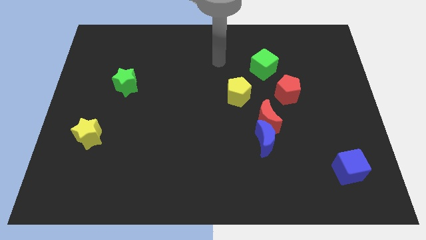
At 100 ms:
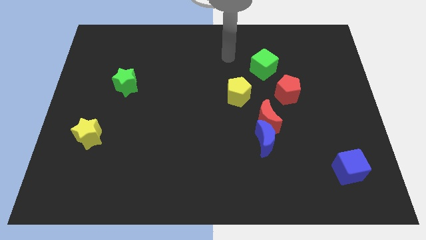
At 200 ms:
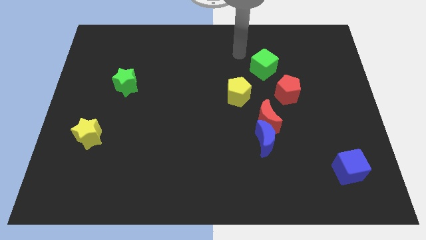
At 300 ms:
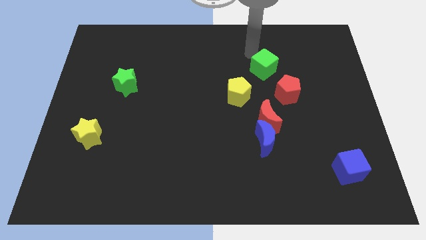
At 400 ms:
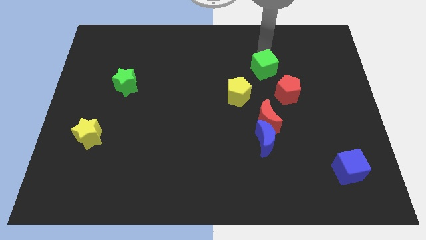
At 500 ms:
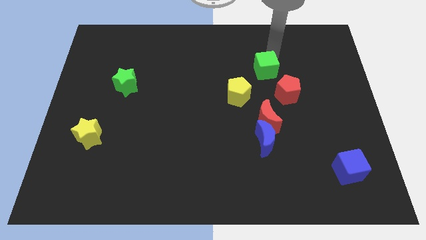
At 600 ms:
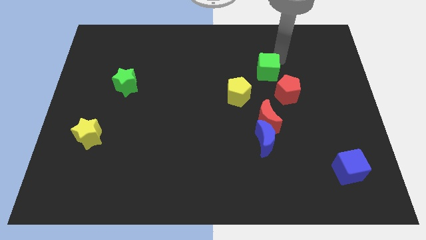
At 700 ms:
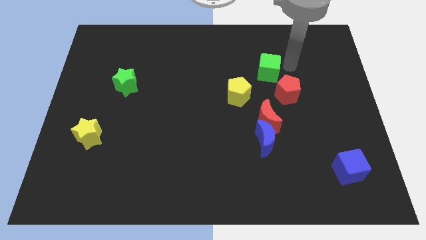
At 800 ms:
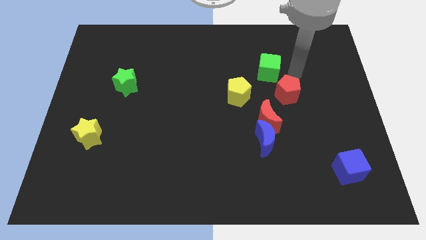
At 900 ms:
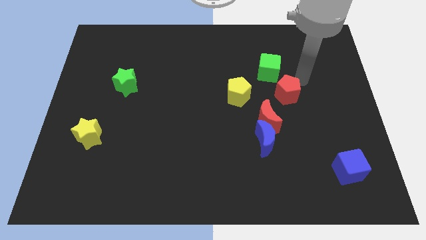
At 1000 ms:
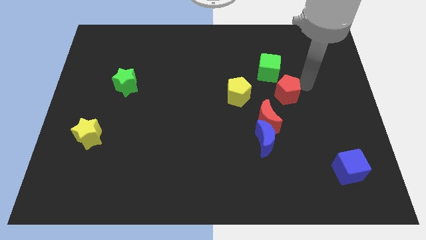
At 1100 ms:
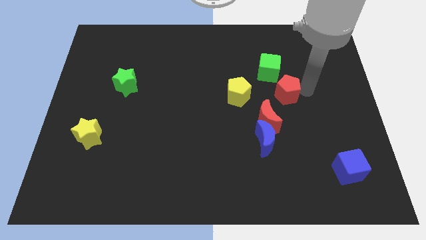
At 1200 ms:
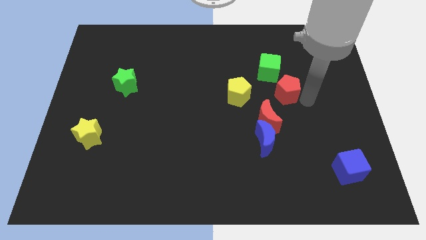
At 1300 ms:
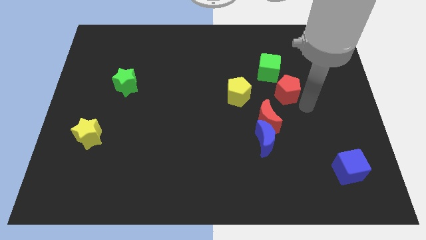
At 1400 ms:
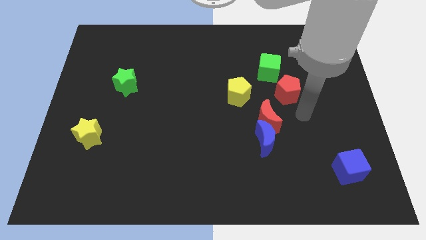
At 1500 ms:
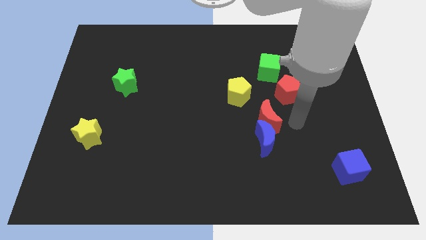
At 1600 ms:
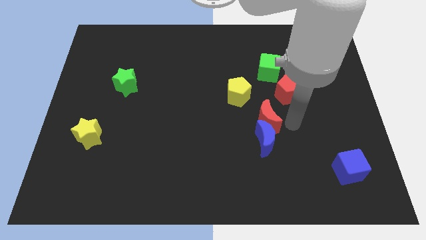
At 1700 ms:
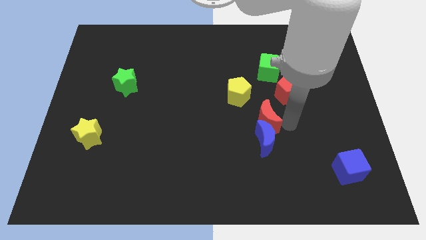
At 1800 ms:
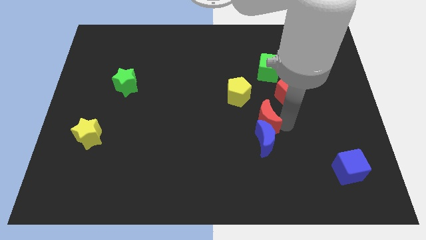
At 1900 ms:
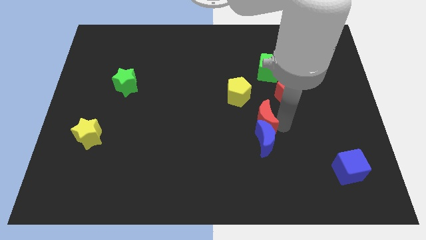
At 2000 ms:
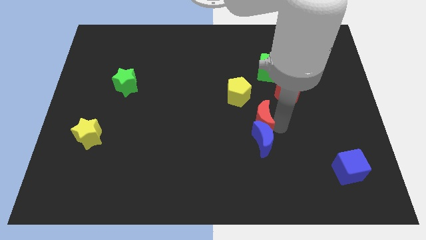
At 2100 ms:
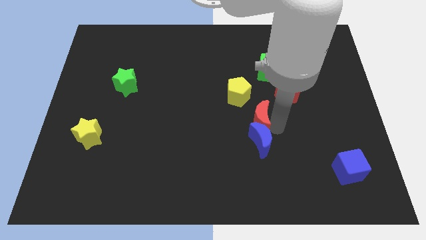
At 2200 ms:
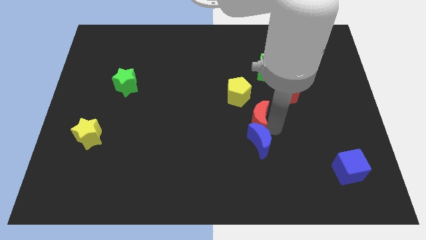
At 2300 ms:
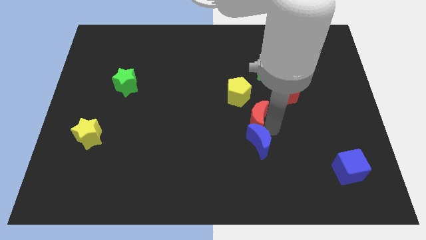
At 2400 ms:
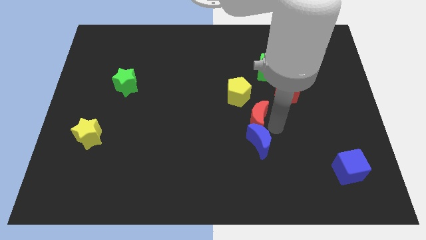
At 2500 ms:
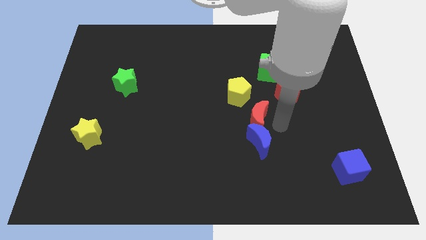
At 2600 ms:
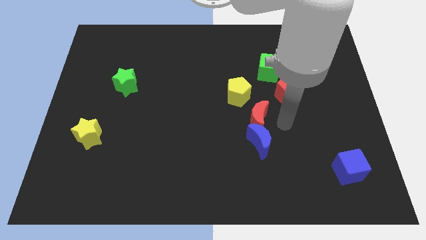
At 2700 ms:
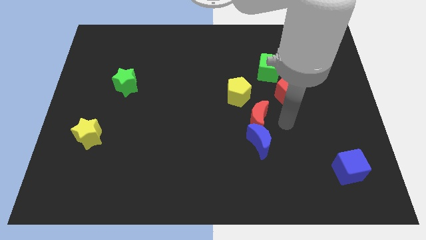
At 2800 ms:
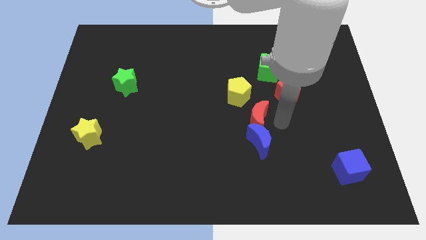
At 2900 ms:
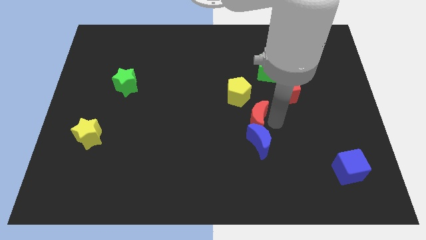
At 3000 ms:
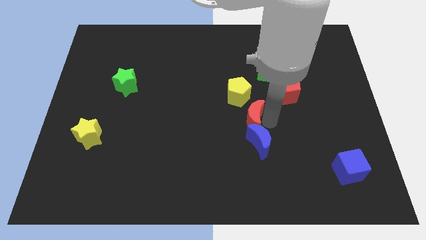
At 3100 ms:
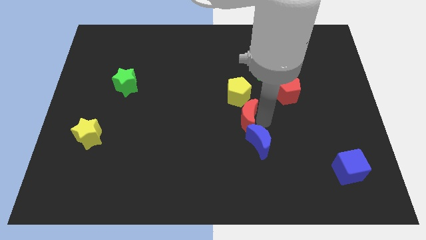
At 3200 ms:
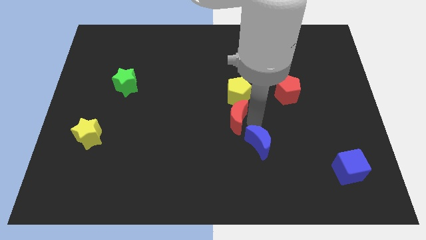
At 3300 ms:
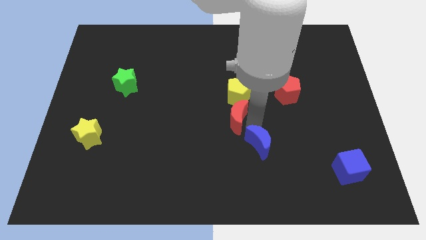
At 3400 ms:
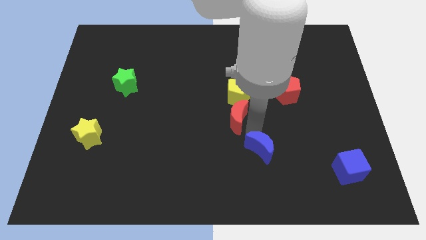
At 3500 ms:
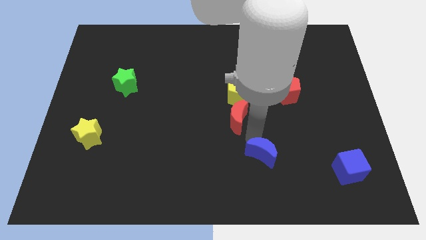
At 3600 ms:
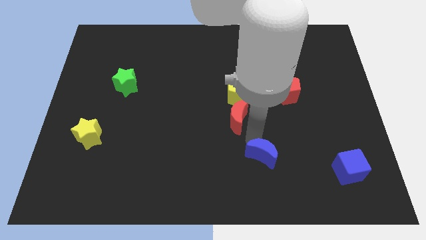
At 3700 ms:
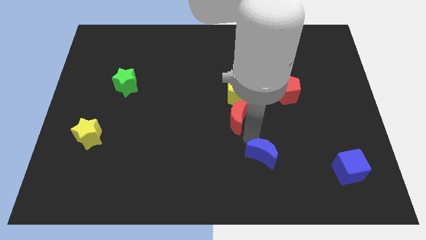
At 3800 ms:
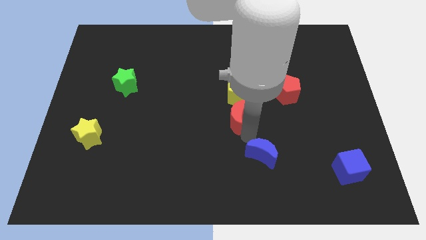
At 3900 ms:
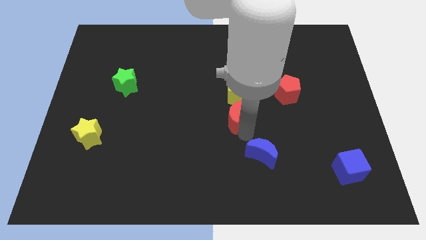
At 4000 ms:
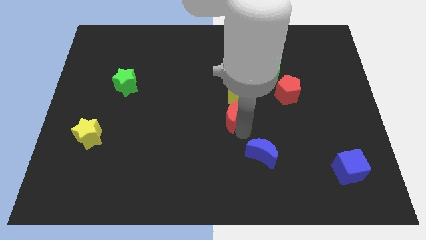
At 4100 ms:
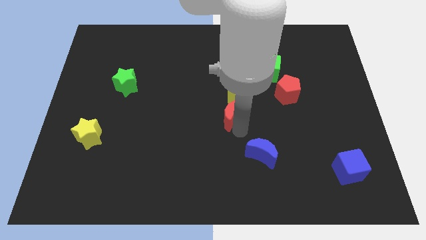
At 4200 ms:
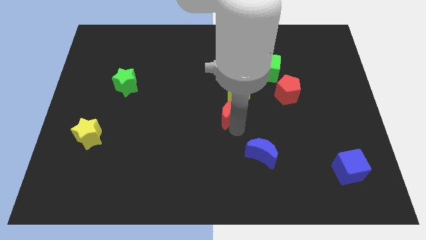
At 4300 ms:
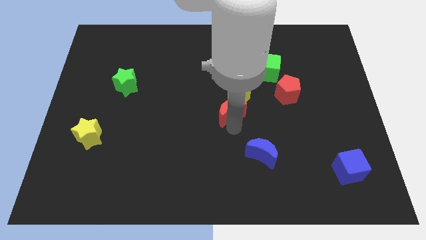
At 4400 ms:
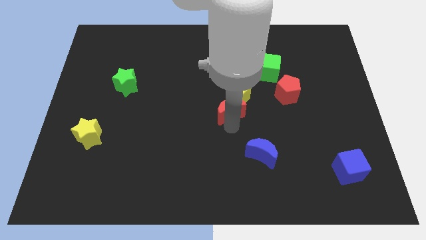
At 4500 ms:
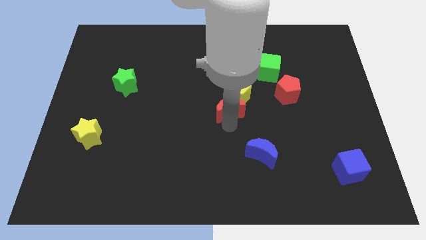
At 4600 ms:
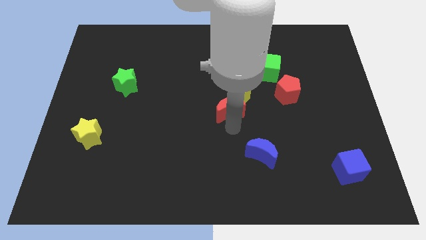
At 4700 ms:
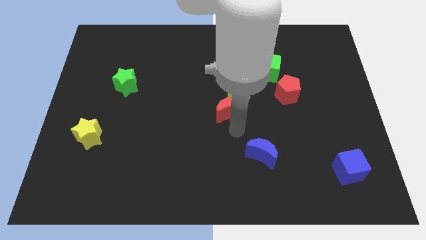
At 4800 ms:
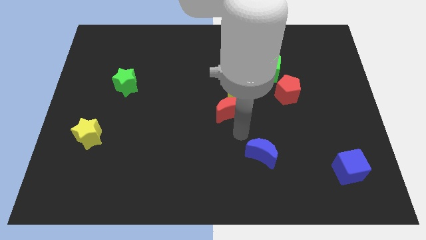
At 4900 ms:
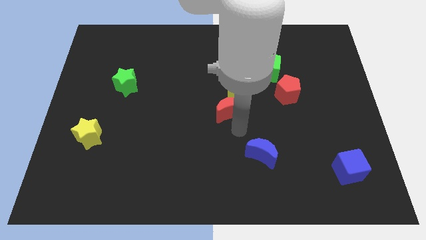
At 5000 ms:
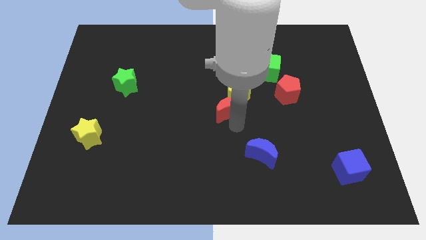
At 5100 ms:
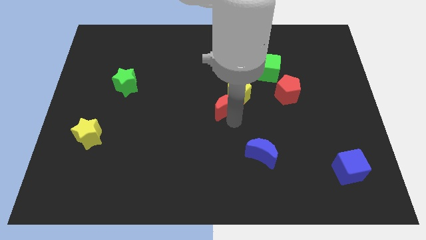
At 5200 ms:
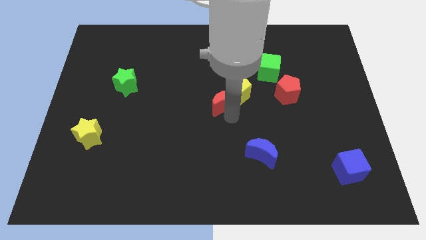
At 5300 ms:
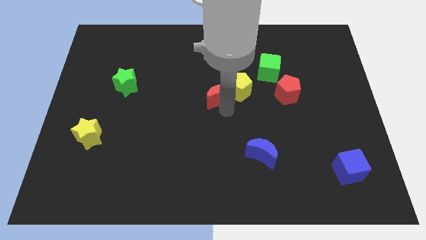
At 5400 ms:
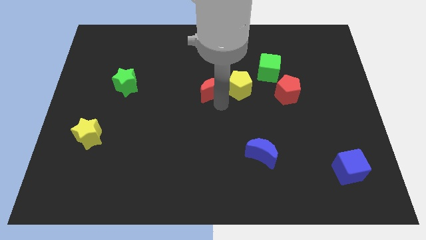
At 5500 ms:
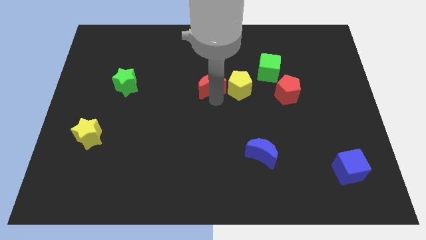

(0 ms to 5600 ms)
move the red moon to the top left side of the yellow pentagon

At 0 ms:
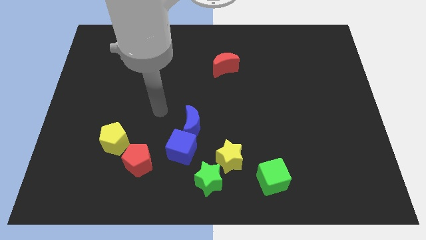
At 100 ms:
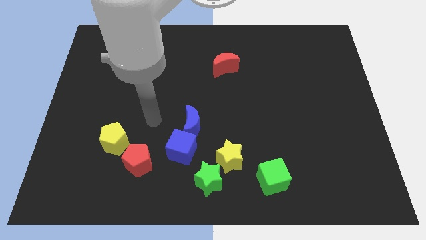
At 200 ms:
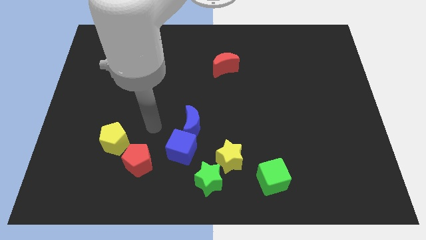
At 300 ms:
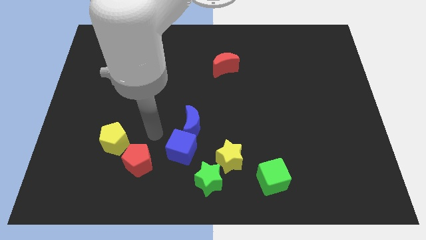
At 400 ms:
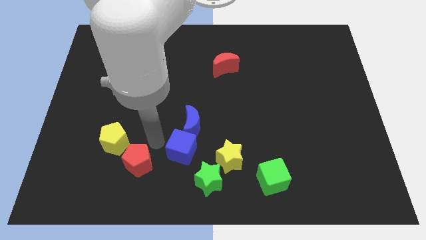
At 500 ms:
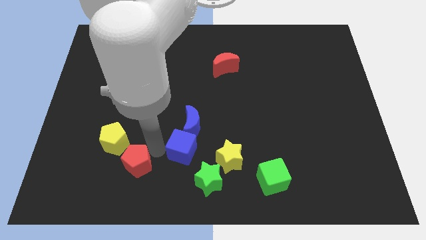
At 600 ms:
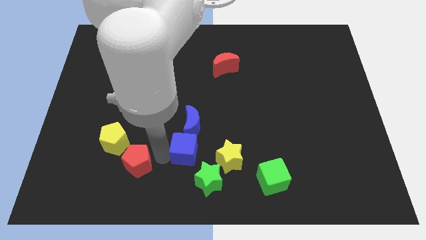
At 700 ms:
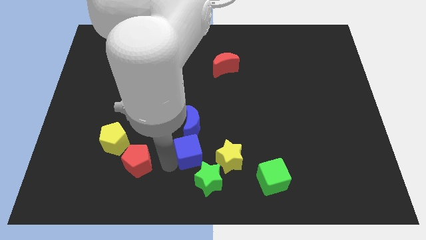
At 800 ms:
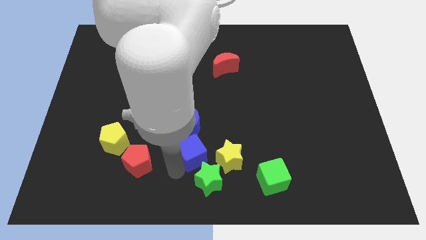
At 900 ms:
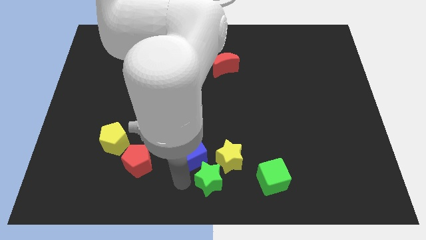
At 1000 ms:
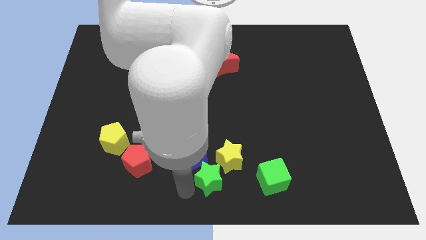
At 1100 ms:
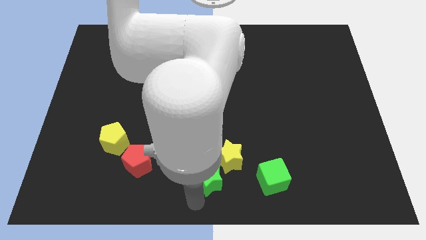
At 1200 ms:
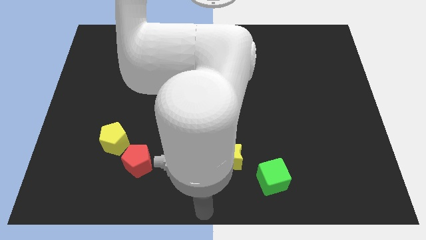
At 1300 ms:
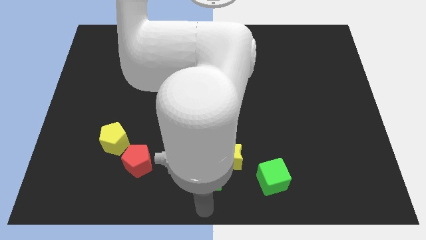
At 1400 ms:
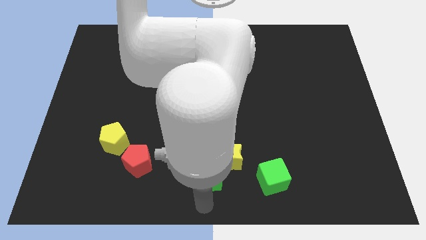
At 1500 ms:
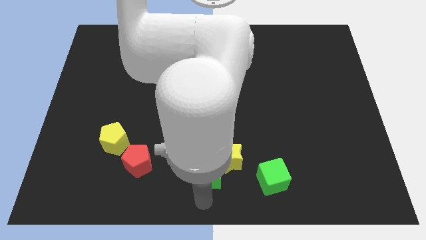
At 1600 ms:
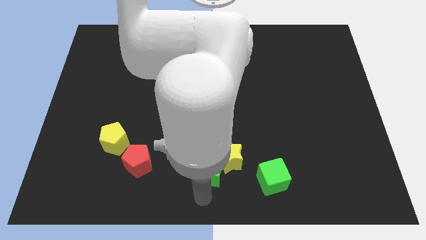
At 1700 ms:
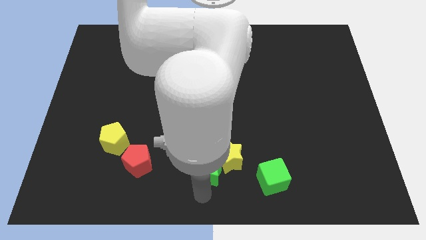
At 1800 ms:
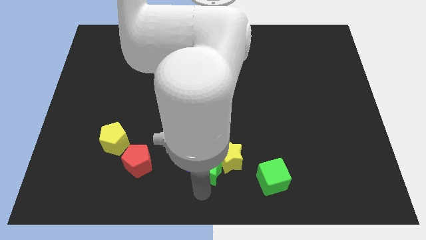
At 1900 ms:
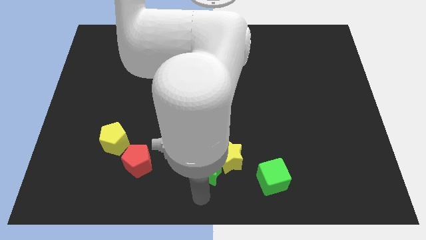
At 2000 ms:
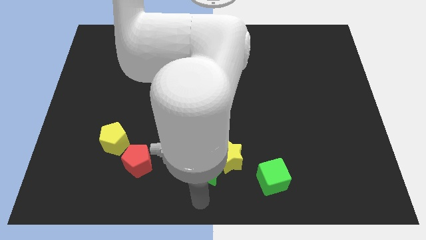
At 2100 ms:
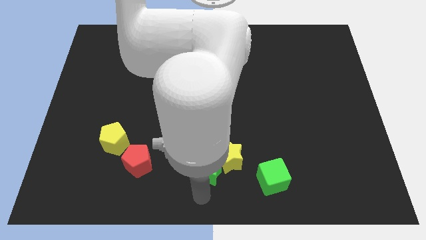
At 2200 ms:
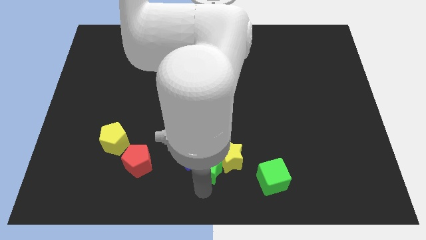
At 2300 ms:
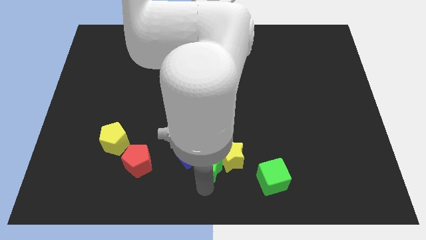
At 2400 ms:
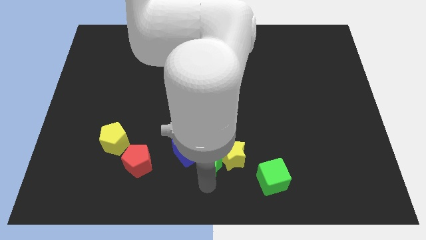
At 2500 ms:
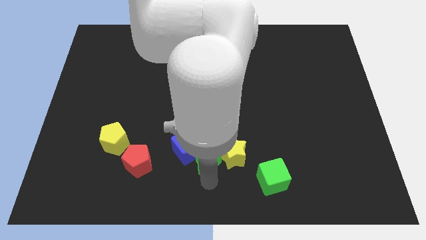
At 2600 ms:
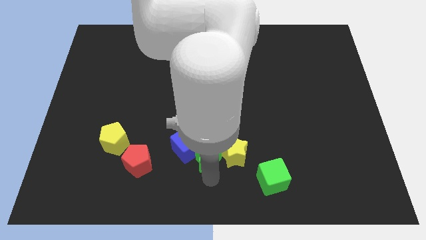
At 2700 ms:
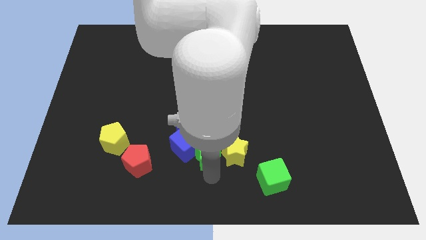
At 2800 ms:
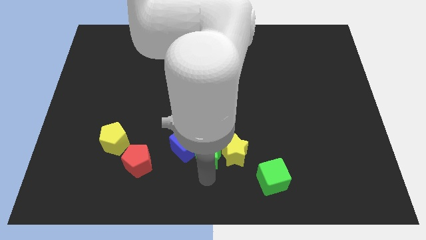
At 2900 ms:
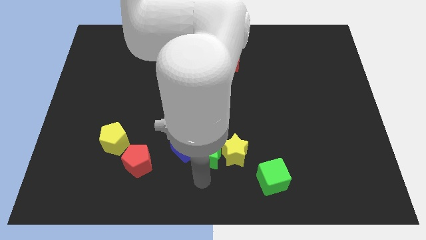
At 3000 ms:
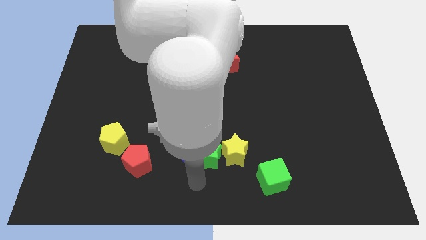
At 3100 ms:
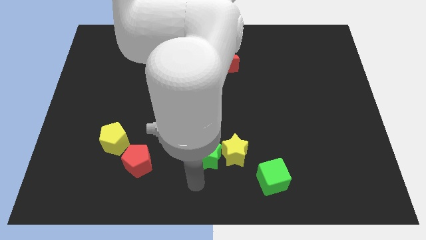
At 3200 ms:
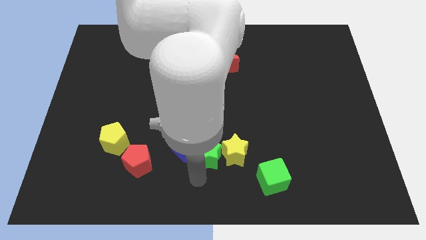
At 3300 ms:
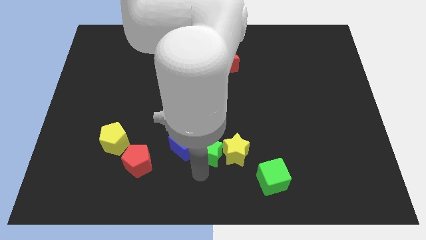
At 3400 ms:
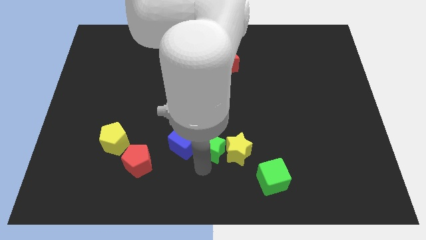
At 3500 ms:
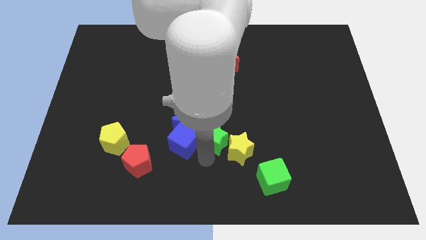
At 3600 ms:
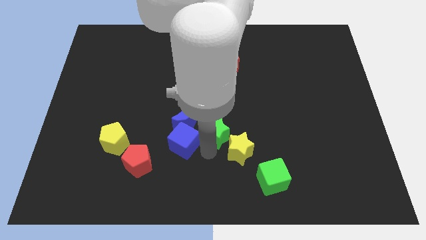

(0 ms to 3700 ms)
put the green star to the right side of the blue moon
